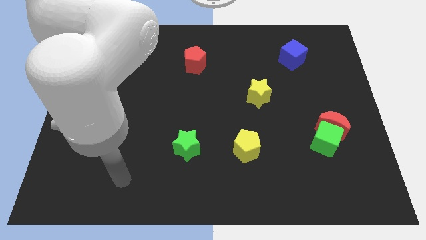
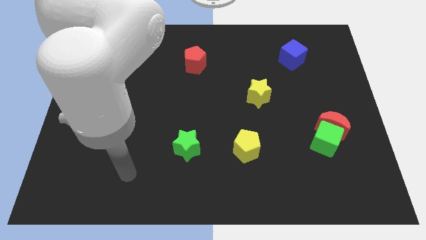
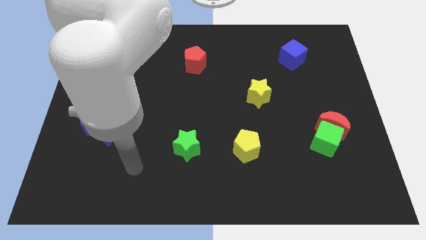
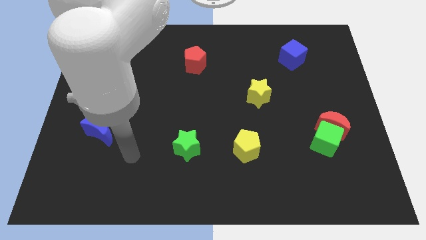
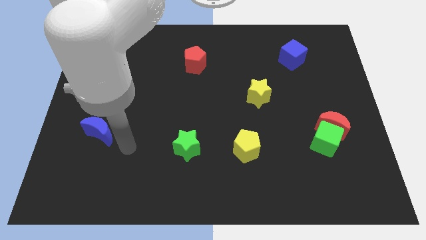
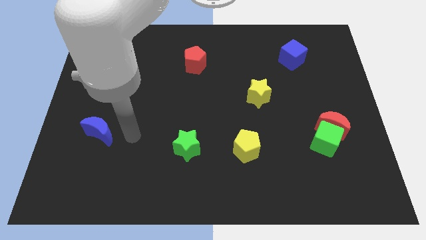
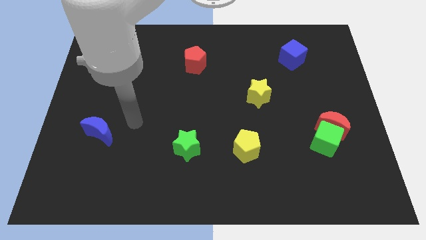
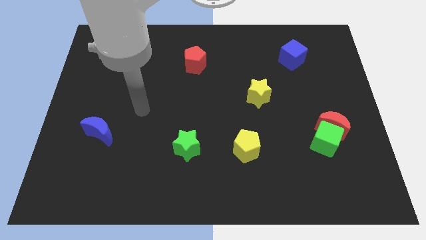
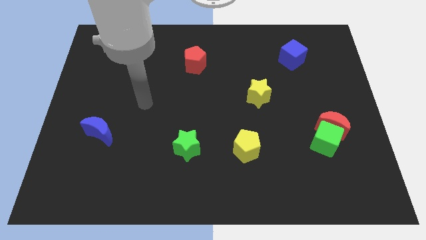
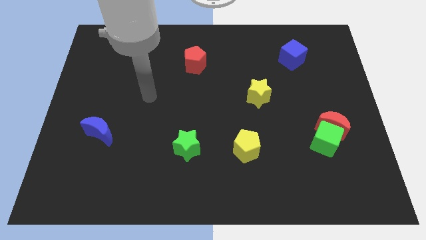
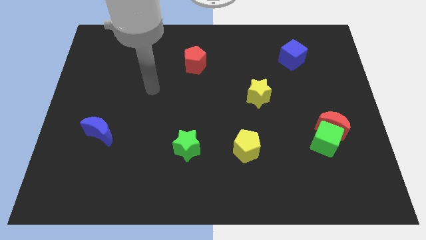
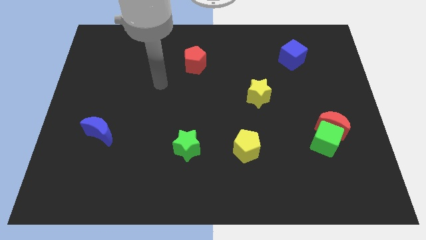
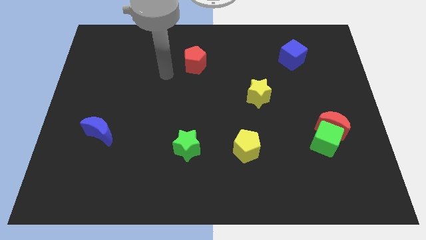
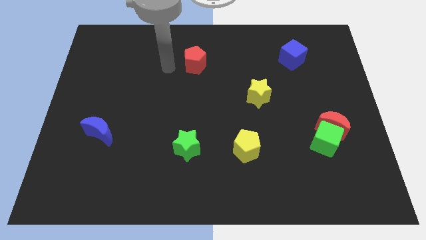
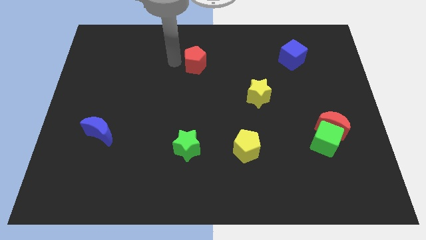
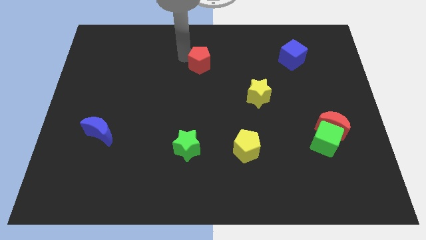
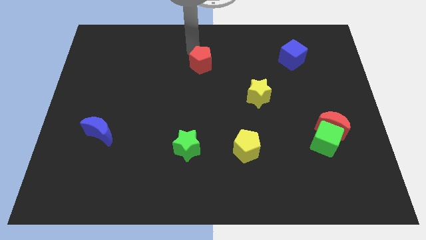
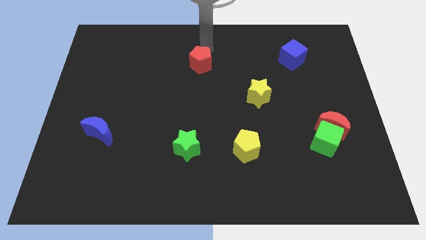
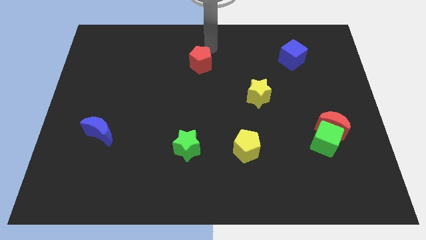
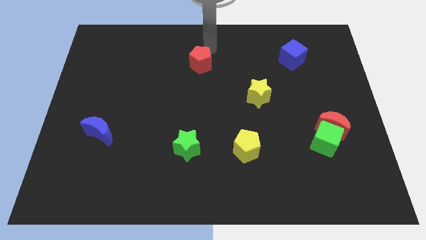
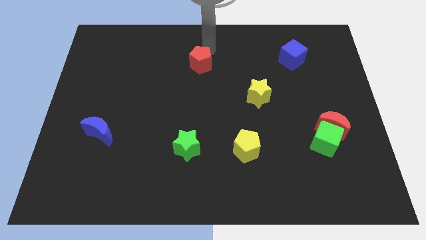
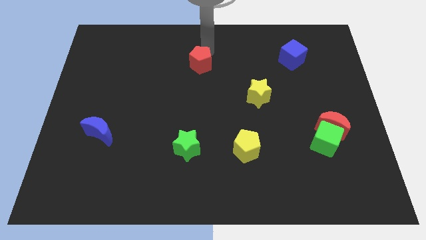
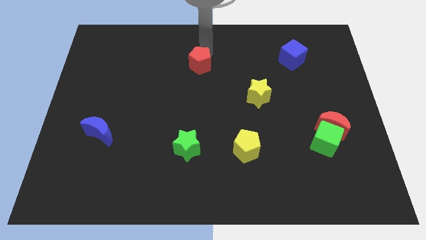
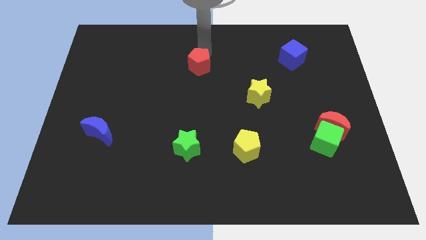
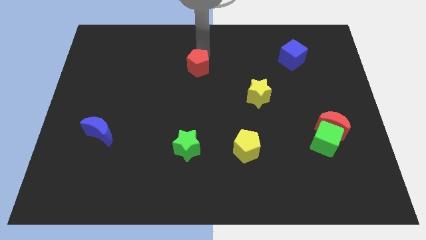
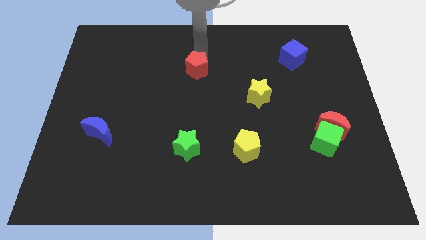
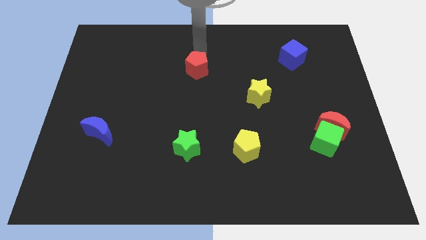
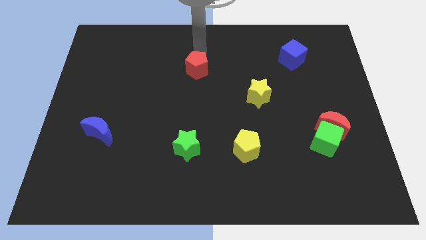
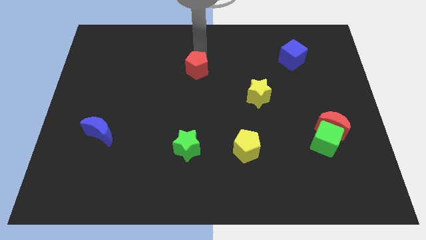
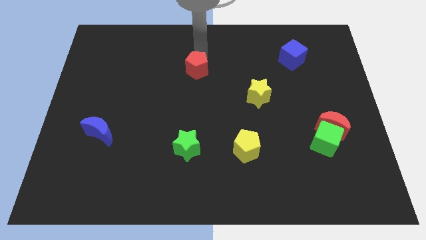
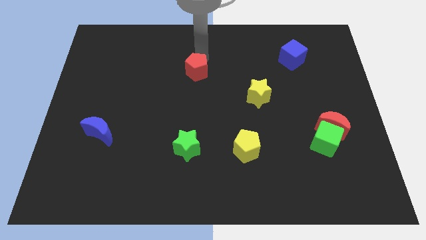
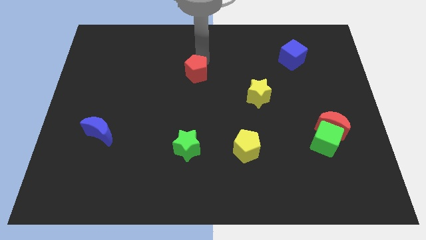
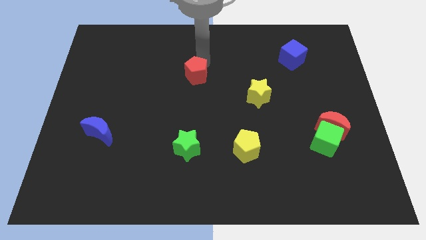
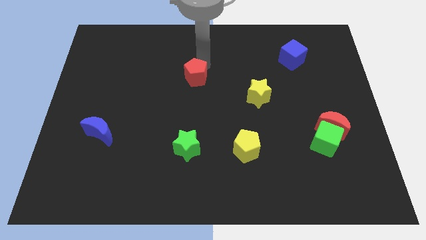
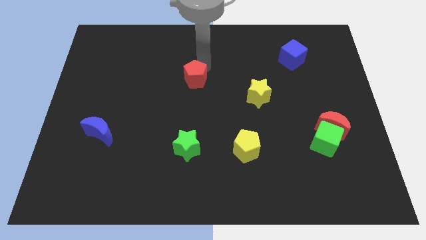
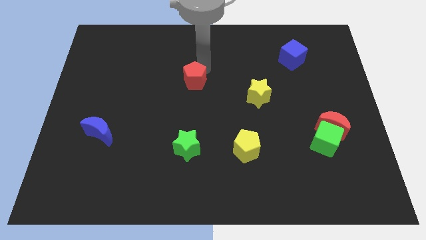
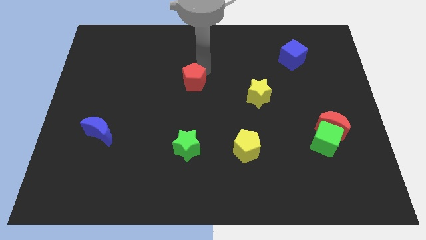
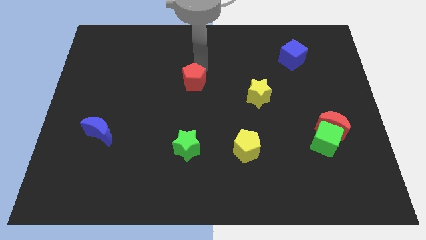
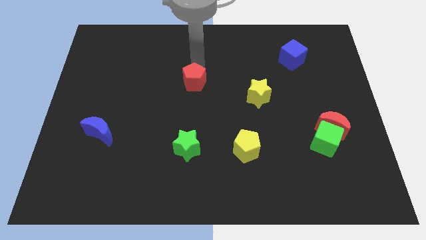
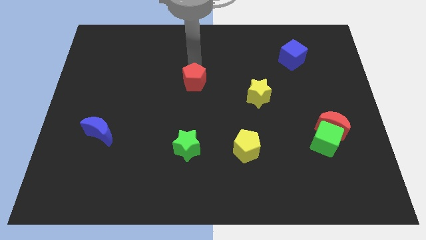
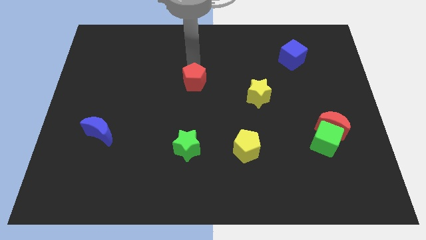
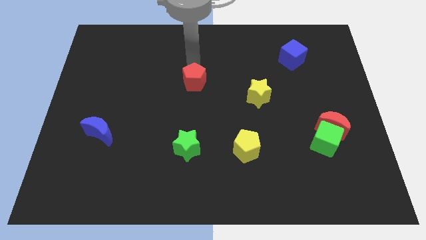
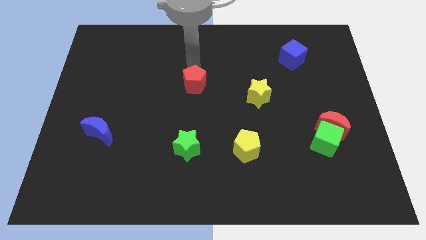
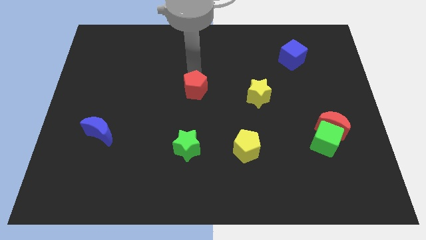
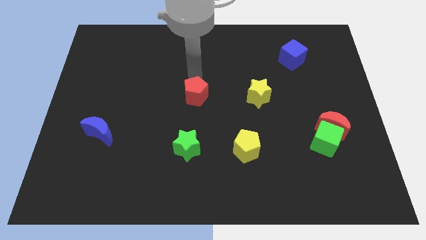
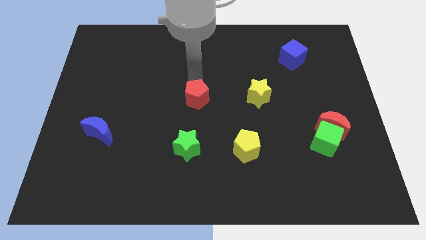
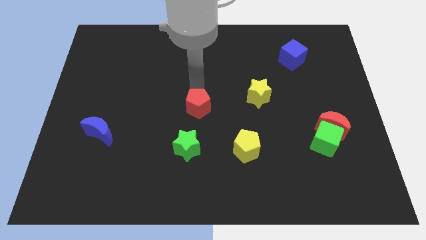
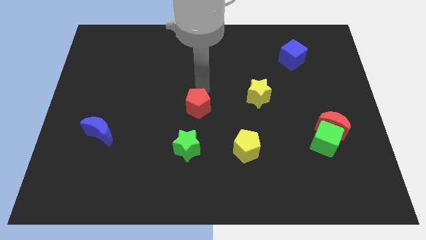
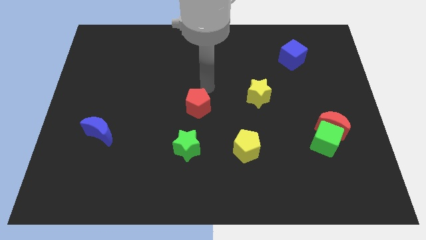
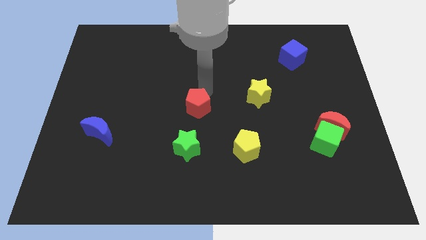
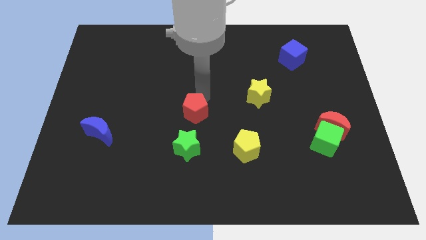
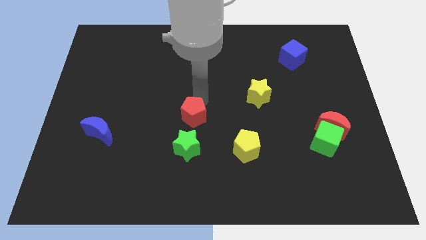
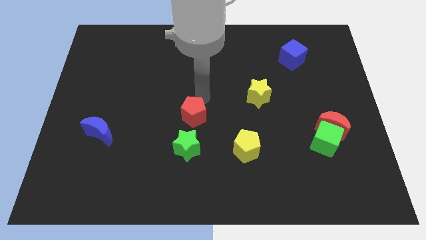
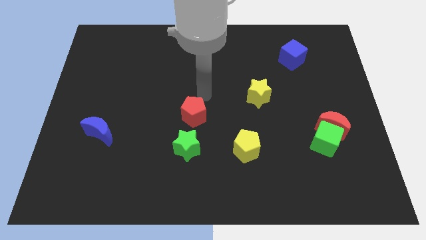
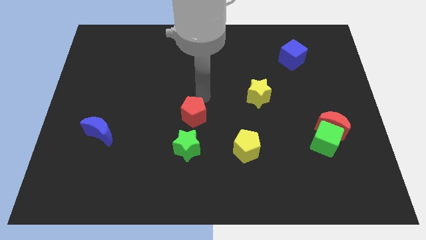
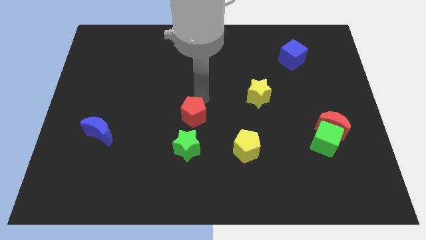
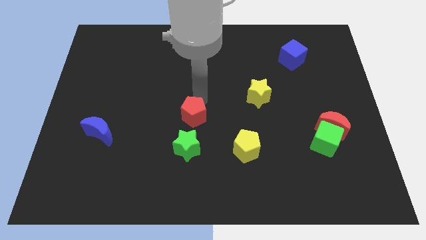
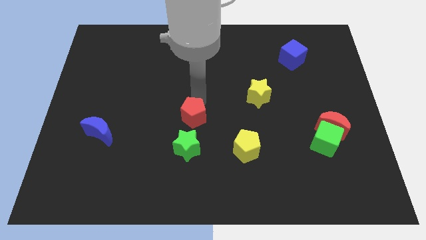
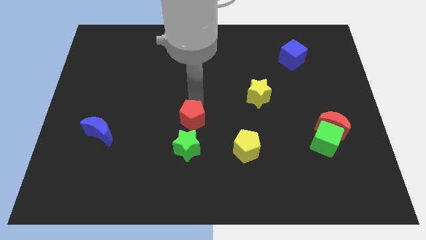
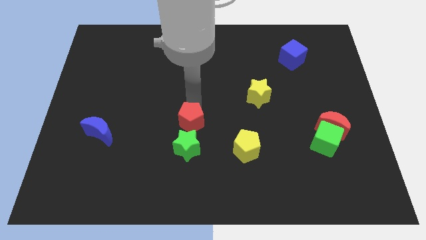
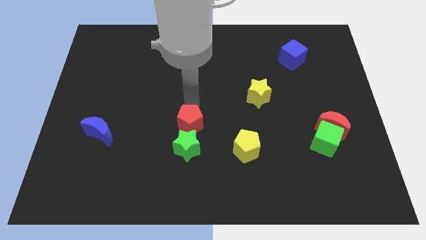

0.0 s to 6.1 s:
move the red pentagon to the green star

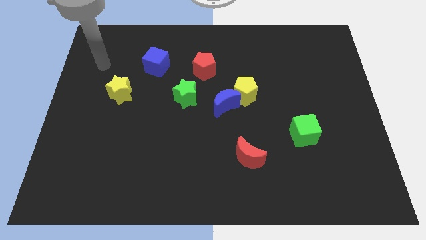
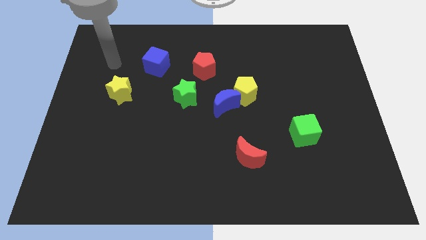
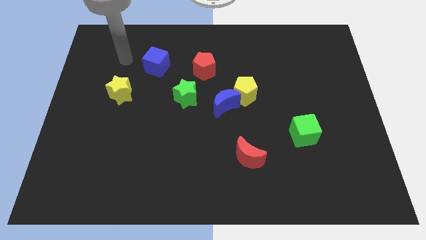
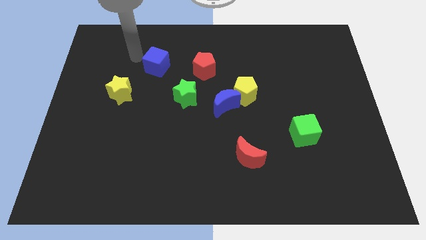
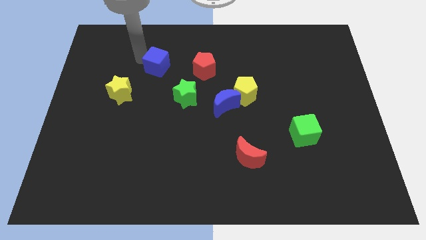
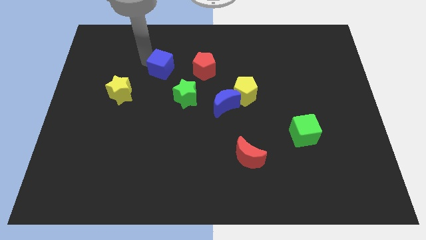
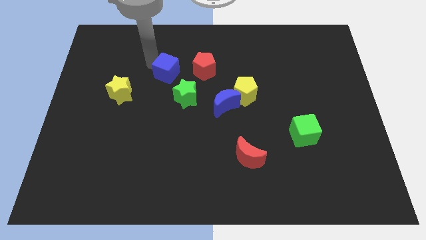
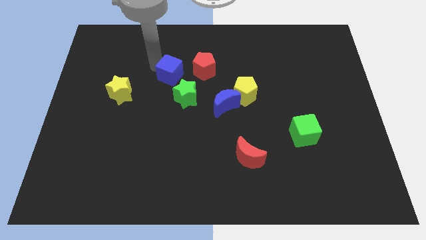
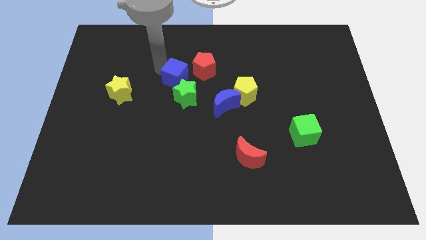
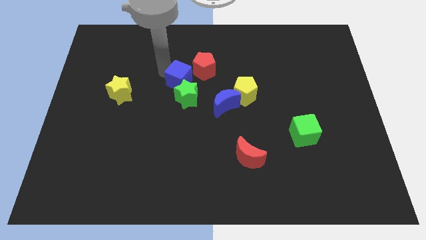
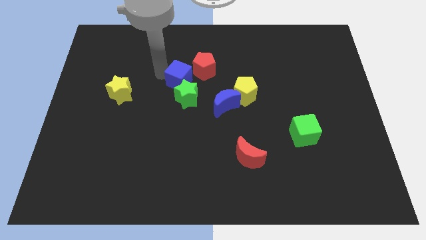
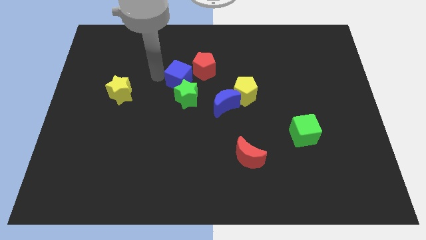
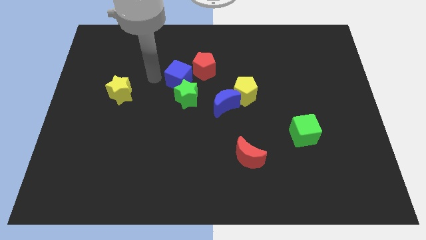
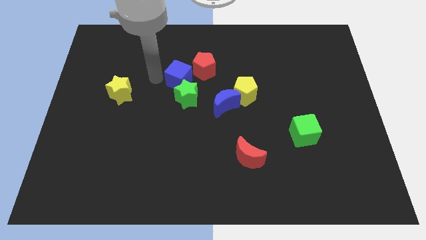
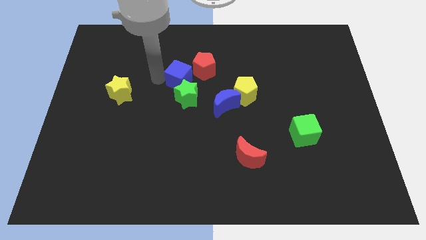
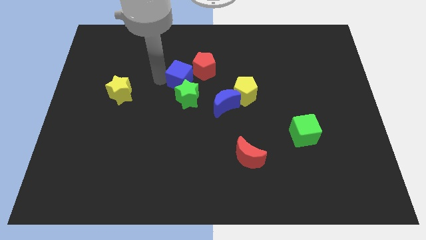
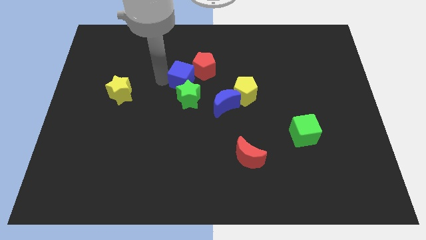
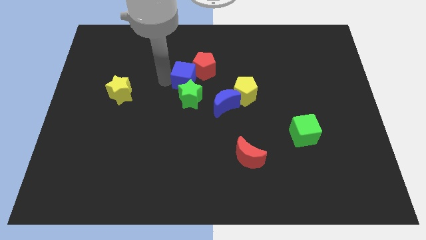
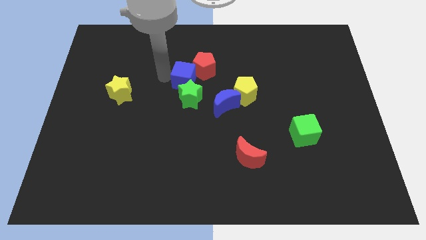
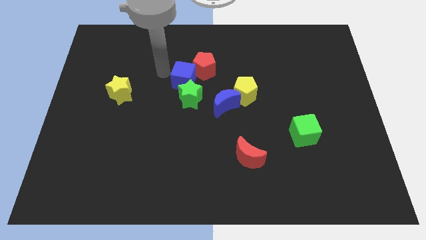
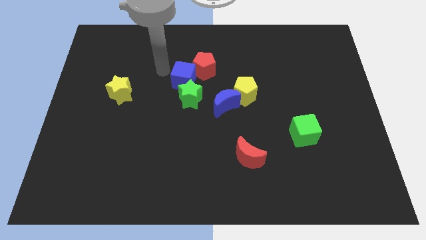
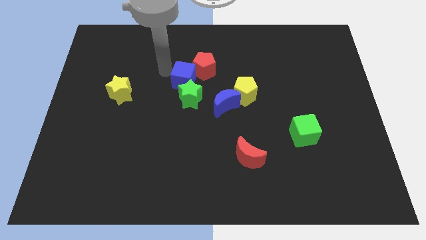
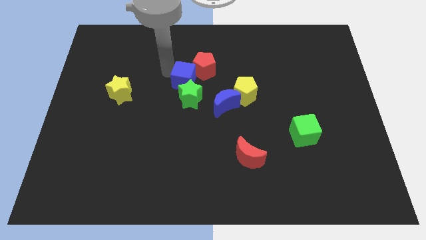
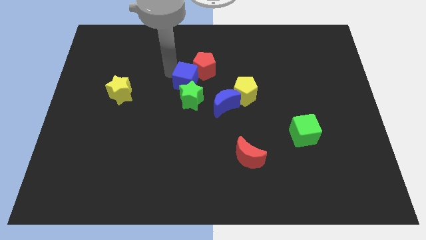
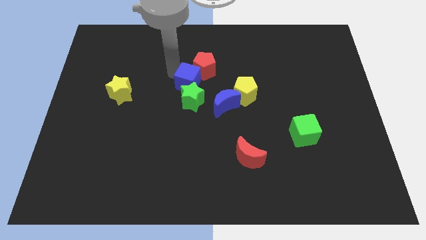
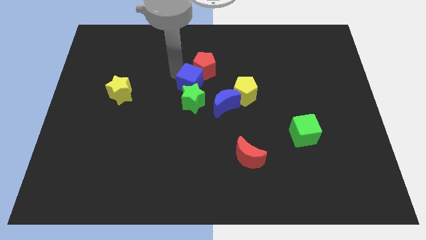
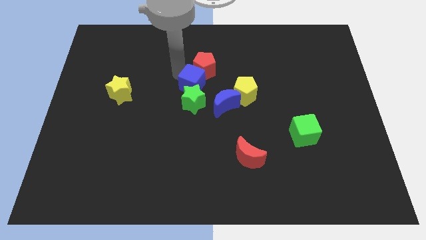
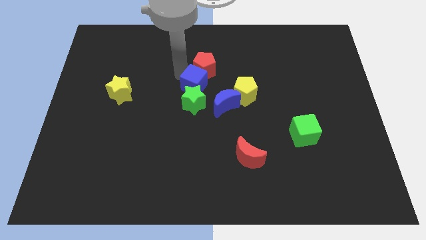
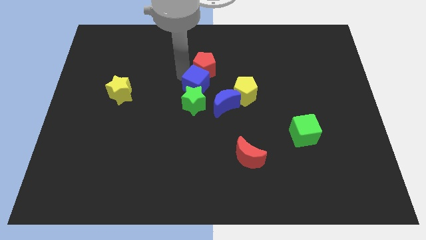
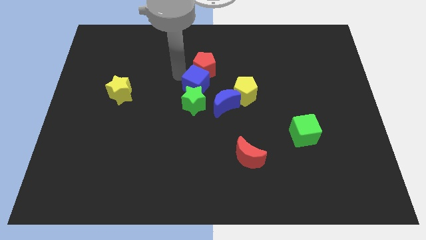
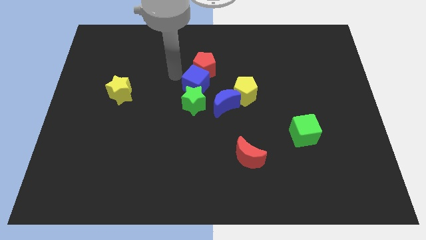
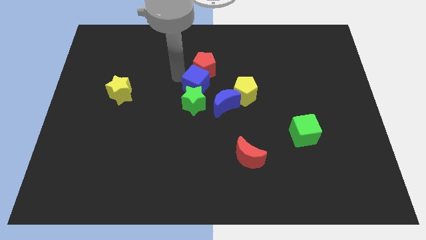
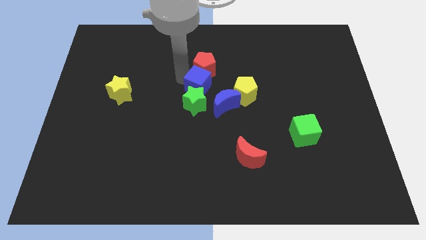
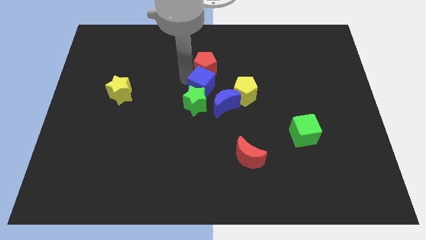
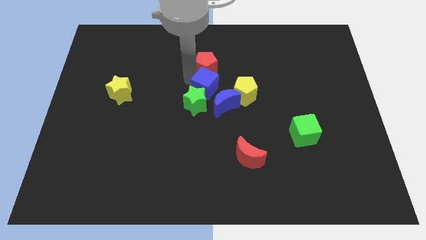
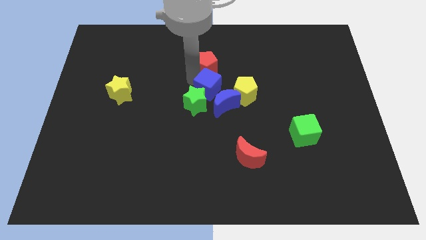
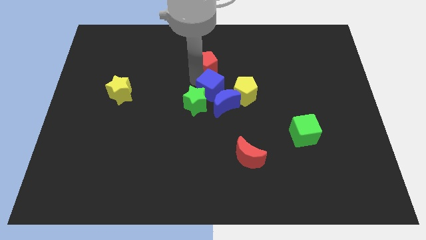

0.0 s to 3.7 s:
move the blue cube next to the blue moon
